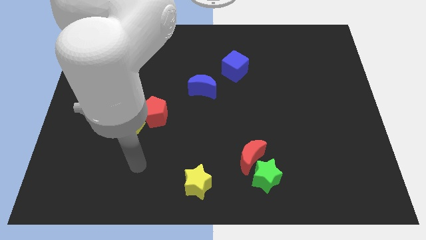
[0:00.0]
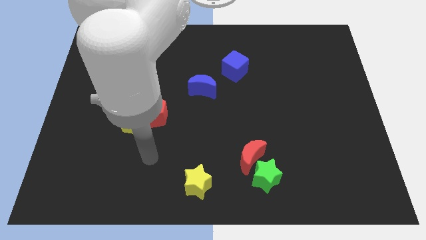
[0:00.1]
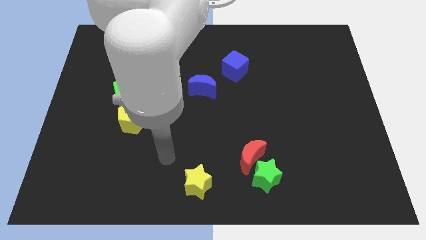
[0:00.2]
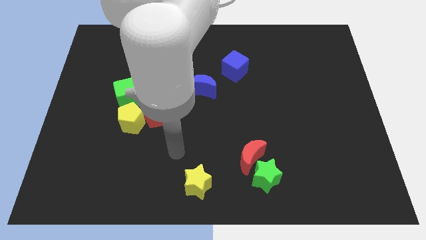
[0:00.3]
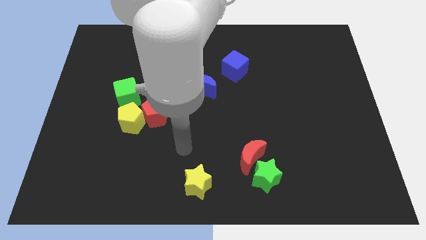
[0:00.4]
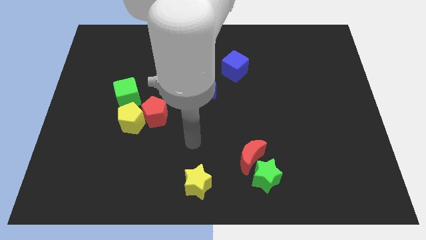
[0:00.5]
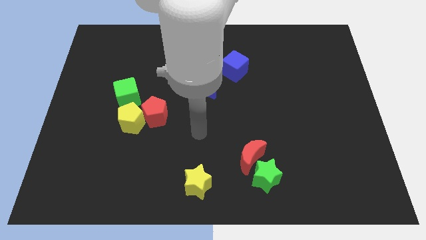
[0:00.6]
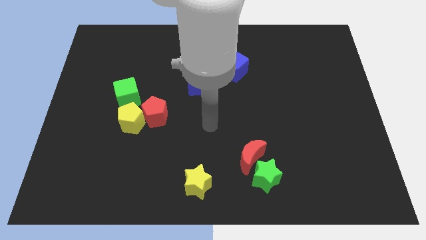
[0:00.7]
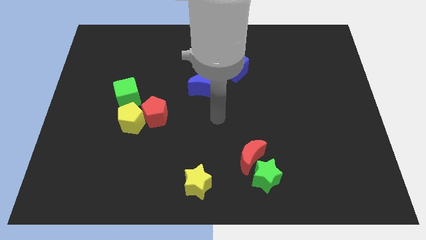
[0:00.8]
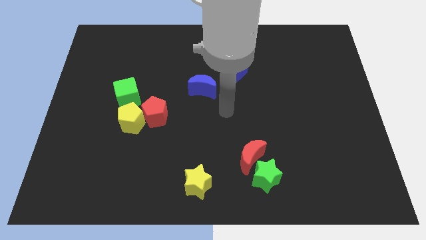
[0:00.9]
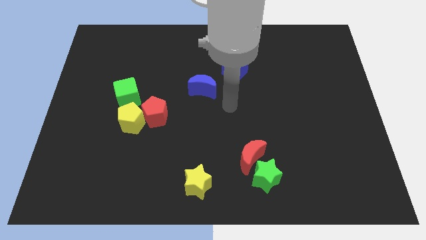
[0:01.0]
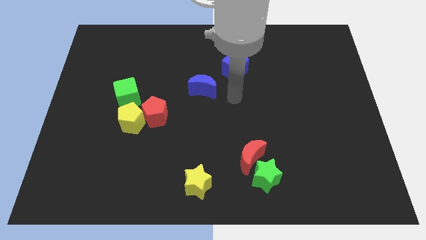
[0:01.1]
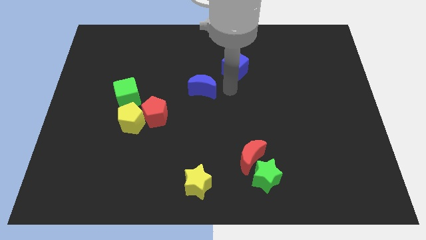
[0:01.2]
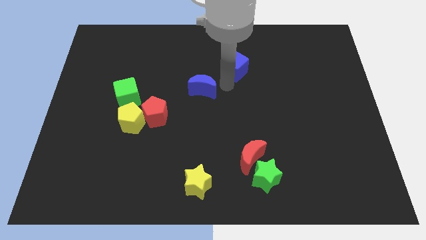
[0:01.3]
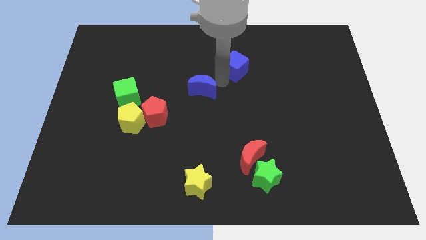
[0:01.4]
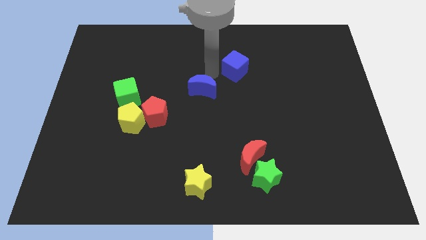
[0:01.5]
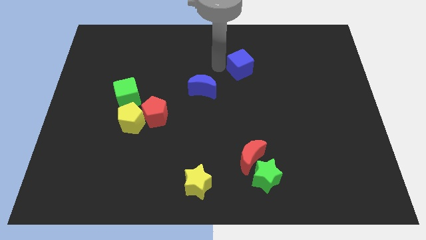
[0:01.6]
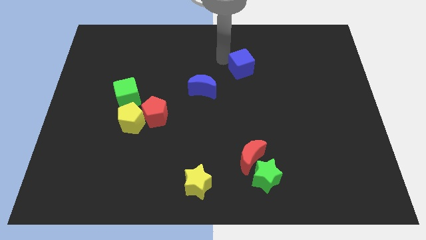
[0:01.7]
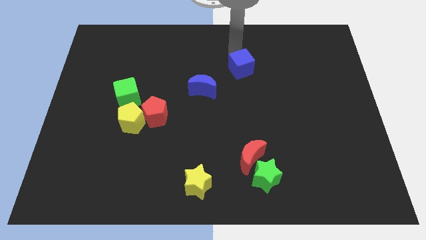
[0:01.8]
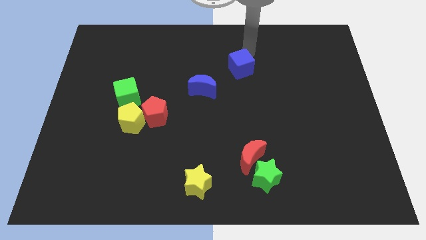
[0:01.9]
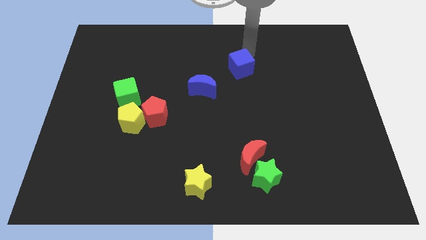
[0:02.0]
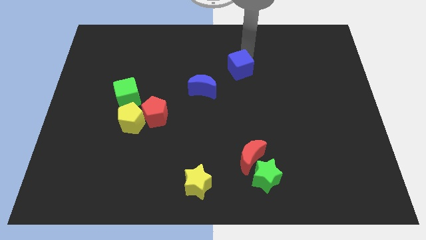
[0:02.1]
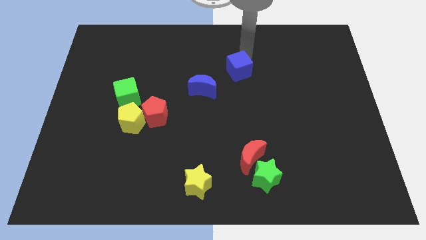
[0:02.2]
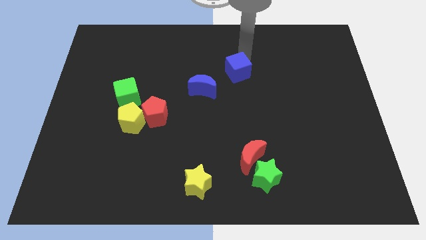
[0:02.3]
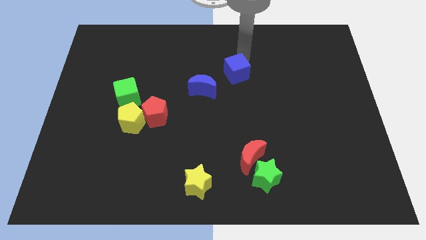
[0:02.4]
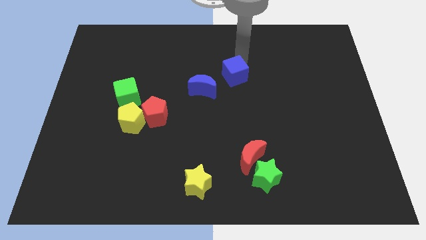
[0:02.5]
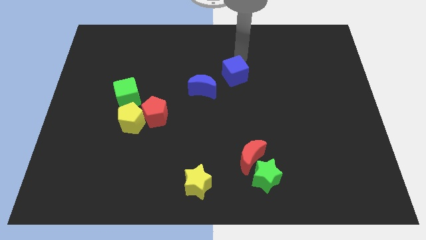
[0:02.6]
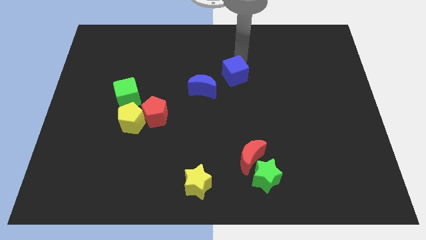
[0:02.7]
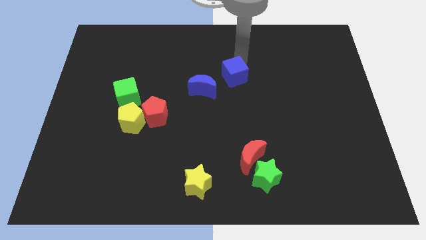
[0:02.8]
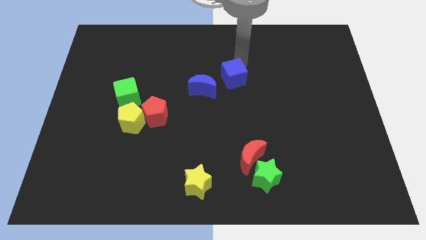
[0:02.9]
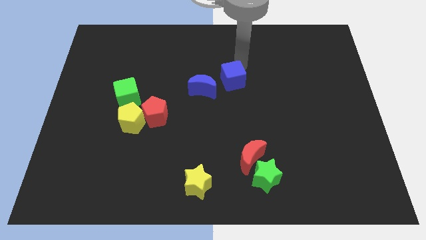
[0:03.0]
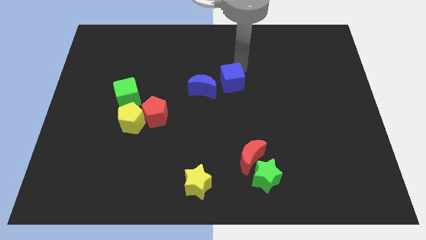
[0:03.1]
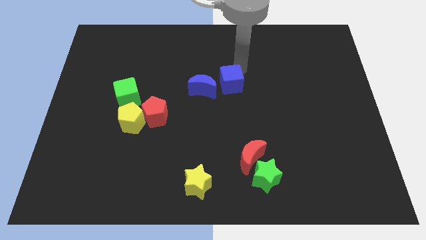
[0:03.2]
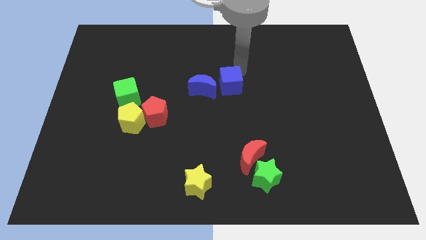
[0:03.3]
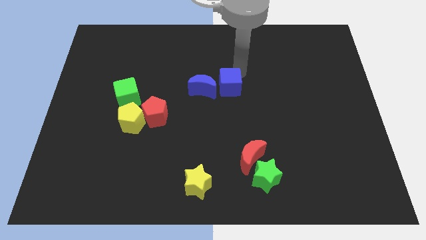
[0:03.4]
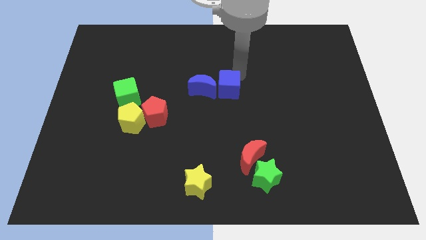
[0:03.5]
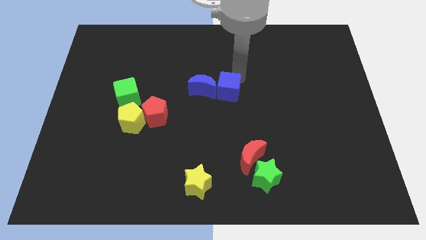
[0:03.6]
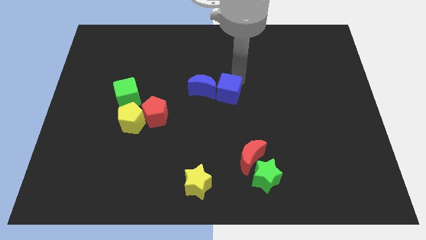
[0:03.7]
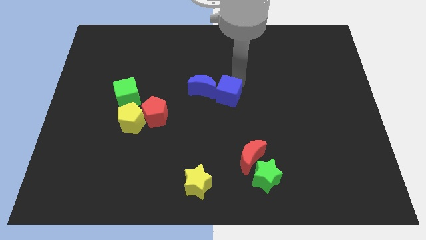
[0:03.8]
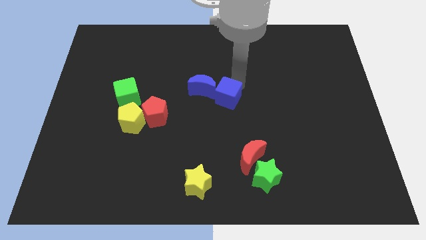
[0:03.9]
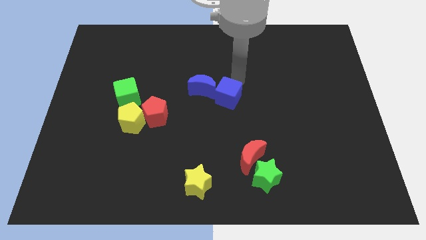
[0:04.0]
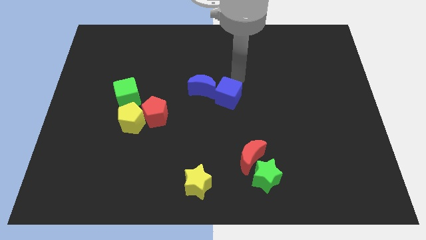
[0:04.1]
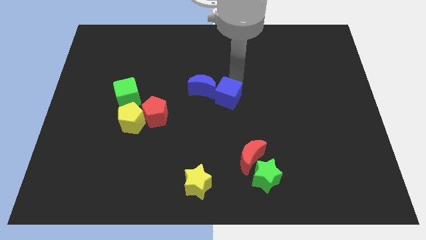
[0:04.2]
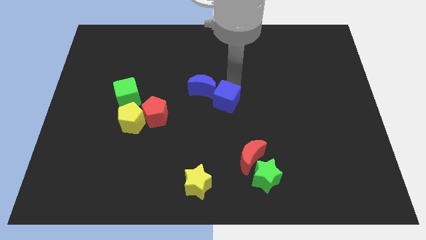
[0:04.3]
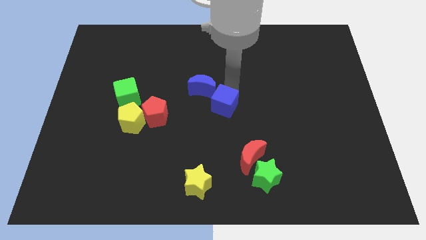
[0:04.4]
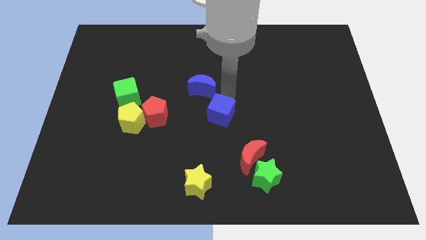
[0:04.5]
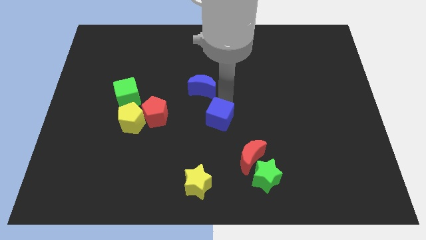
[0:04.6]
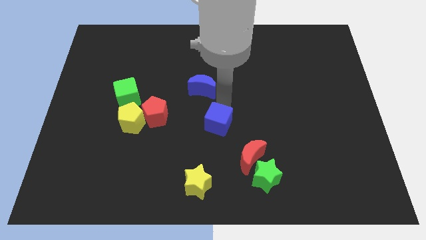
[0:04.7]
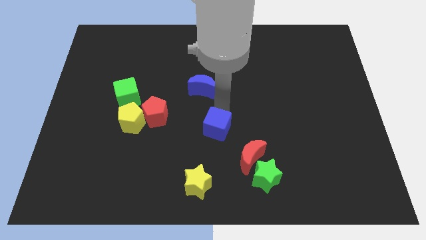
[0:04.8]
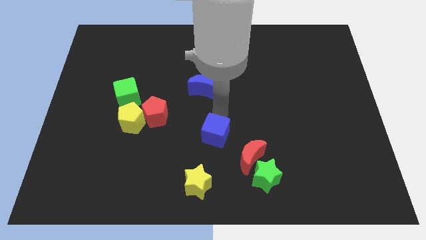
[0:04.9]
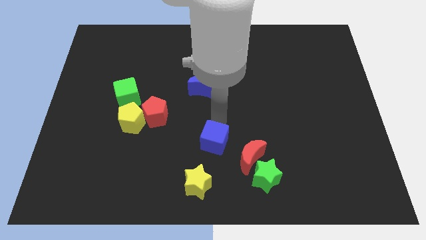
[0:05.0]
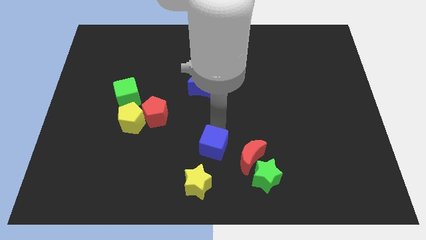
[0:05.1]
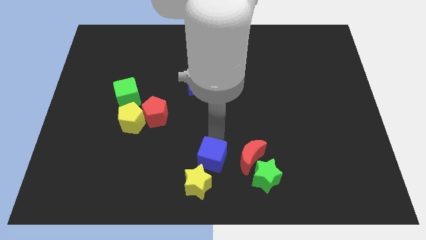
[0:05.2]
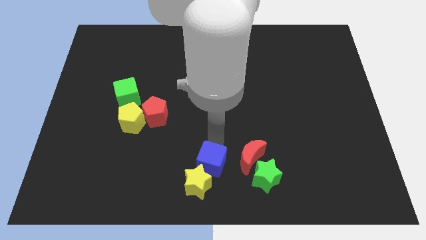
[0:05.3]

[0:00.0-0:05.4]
push the blue cube towards the yellow star
